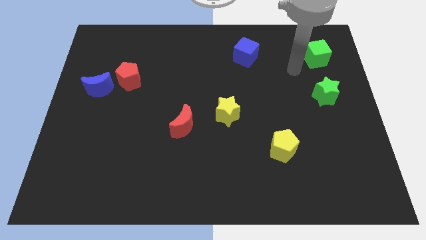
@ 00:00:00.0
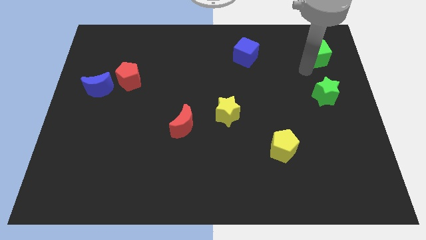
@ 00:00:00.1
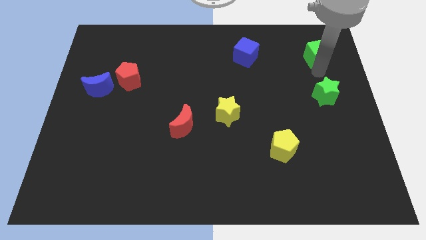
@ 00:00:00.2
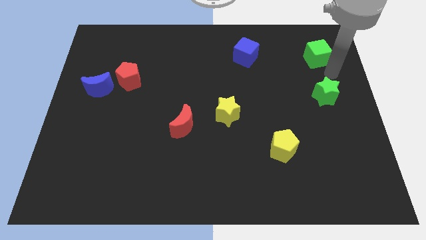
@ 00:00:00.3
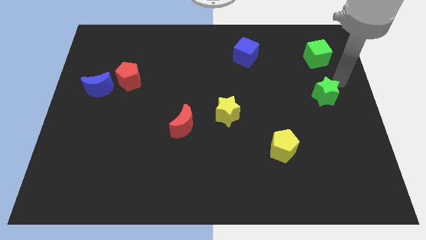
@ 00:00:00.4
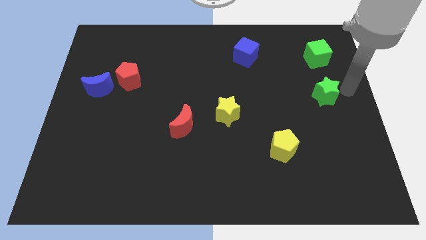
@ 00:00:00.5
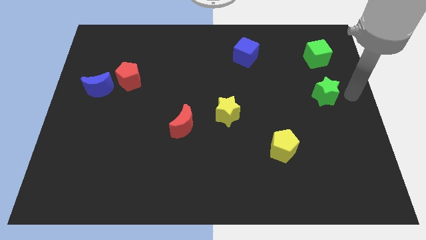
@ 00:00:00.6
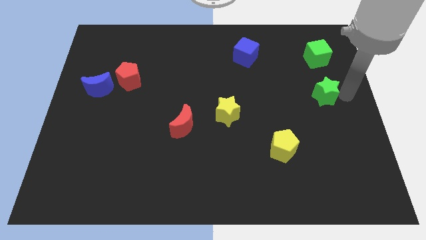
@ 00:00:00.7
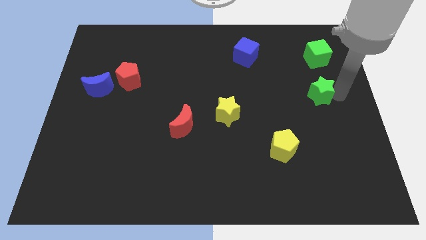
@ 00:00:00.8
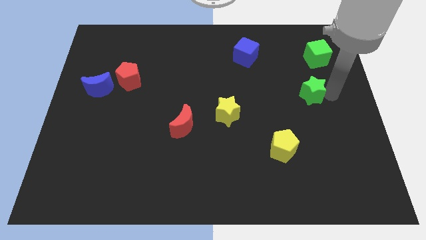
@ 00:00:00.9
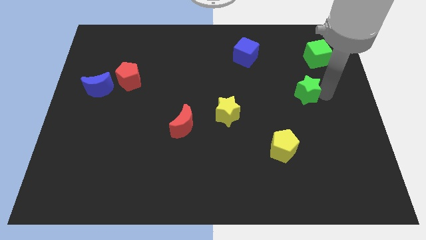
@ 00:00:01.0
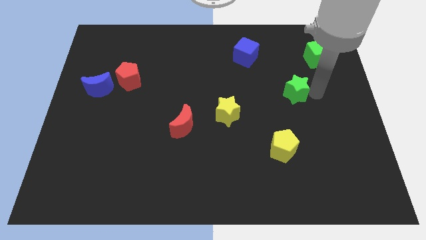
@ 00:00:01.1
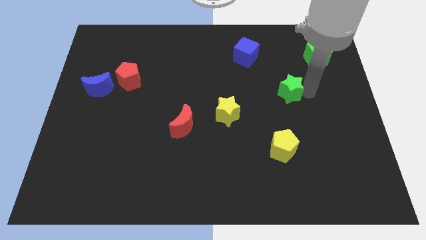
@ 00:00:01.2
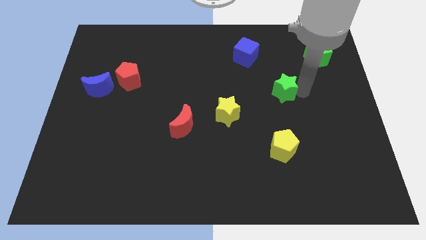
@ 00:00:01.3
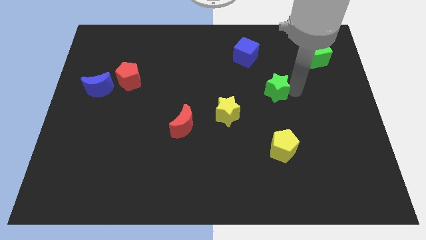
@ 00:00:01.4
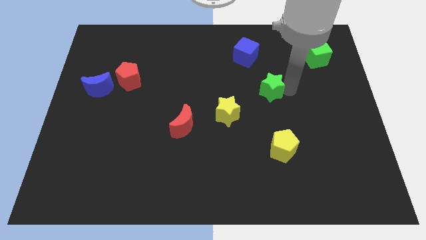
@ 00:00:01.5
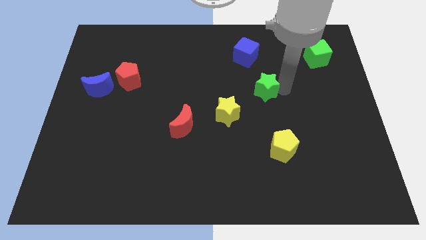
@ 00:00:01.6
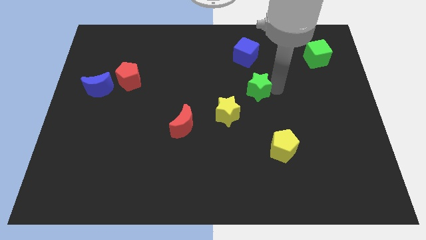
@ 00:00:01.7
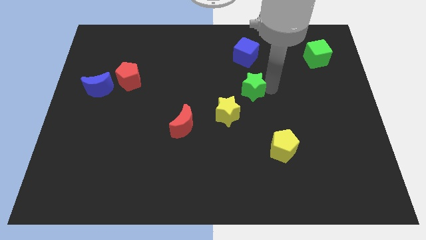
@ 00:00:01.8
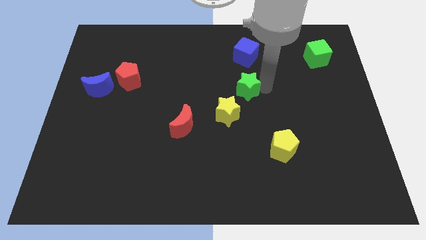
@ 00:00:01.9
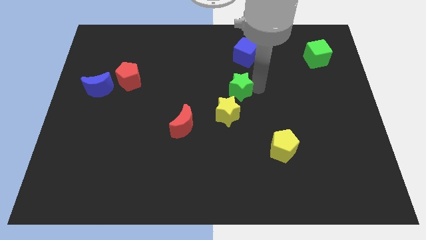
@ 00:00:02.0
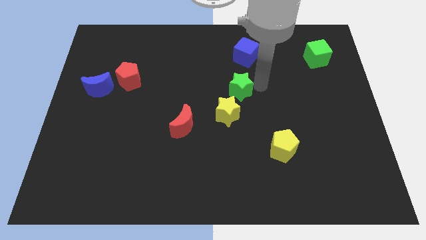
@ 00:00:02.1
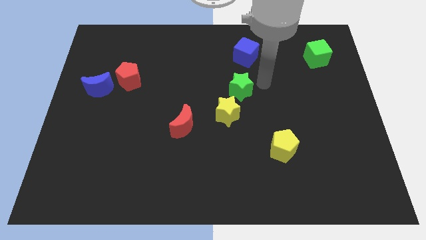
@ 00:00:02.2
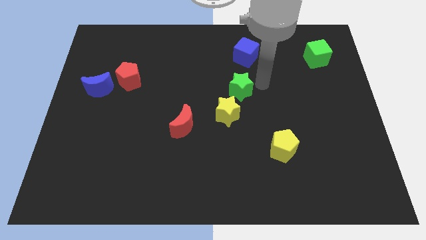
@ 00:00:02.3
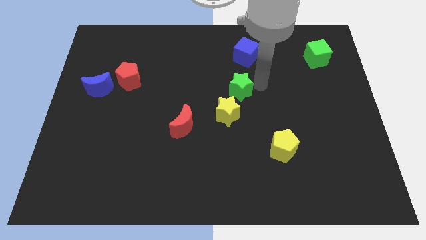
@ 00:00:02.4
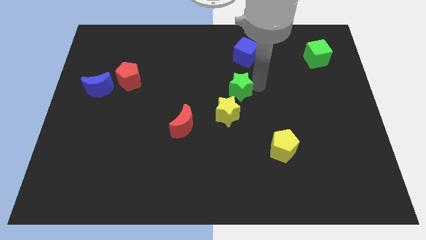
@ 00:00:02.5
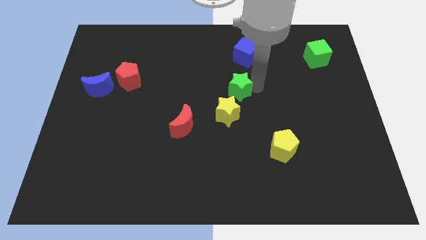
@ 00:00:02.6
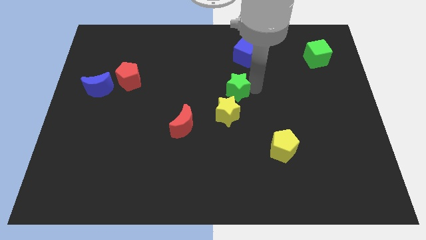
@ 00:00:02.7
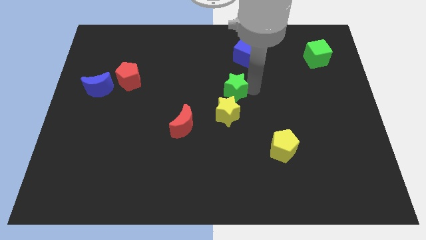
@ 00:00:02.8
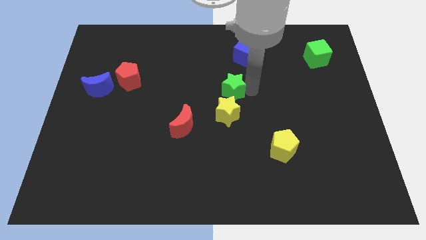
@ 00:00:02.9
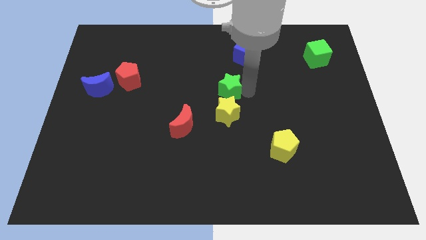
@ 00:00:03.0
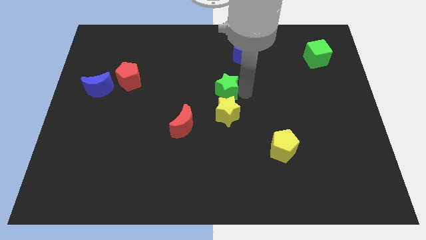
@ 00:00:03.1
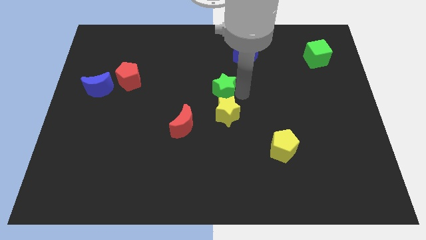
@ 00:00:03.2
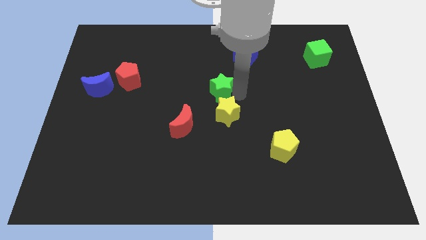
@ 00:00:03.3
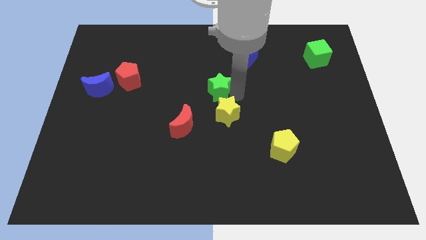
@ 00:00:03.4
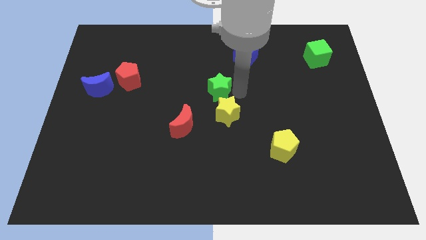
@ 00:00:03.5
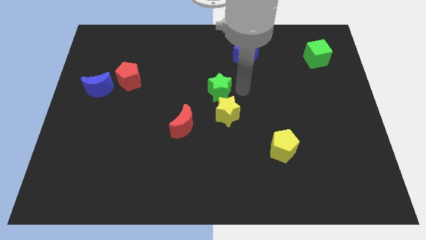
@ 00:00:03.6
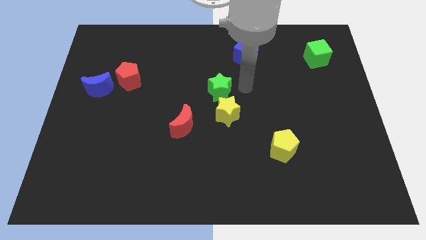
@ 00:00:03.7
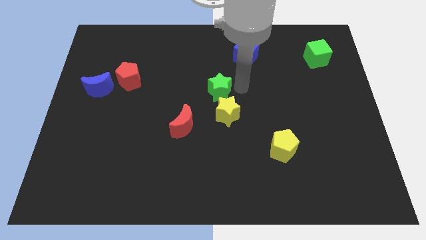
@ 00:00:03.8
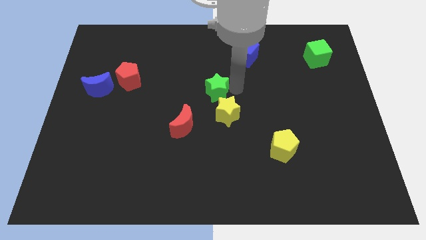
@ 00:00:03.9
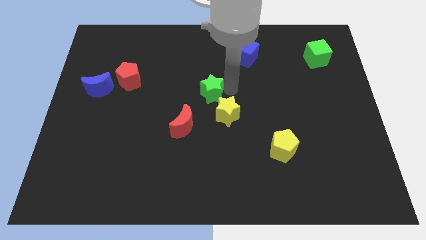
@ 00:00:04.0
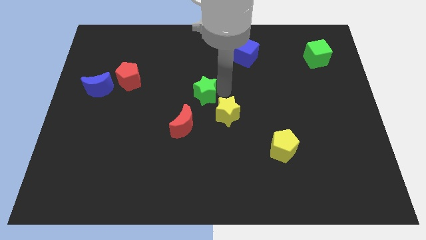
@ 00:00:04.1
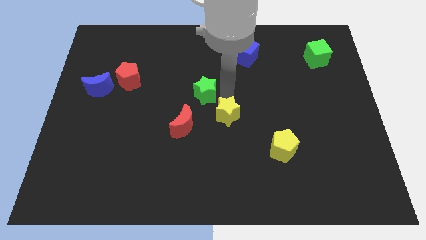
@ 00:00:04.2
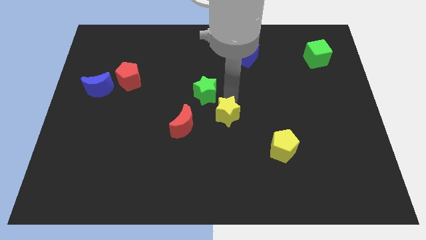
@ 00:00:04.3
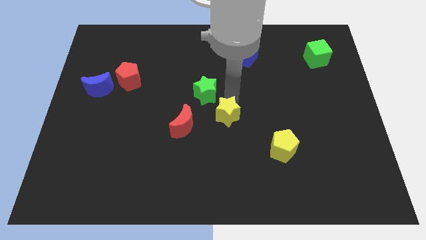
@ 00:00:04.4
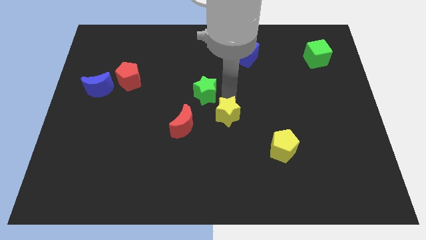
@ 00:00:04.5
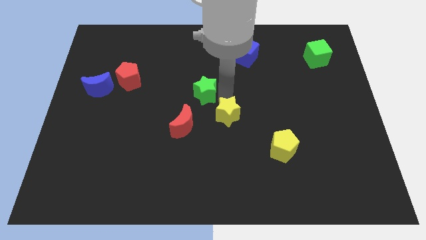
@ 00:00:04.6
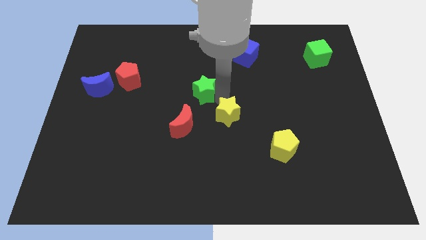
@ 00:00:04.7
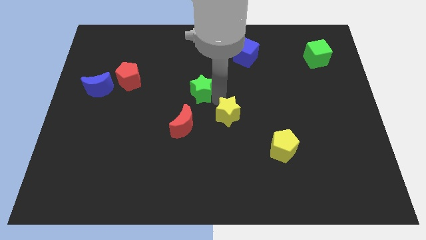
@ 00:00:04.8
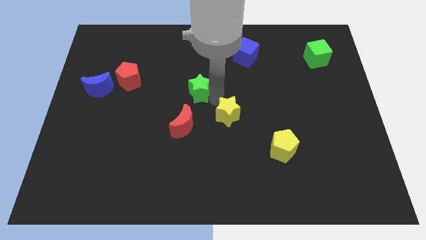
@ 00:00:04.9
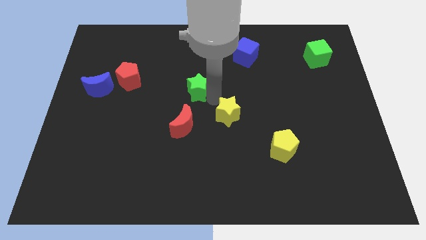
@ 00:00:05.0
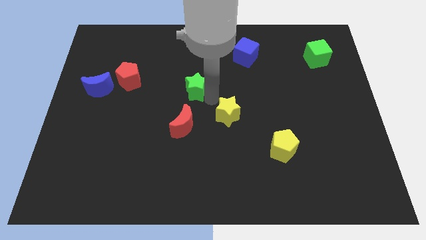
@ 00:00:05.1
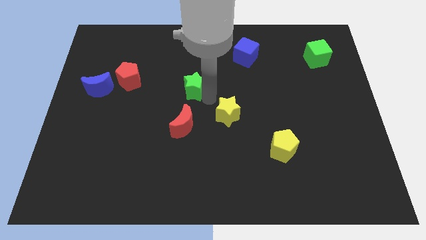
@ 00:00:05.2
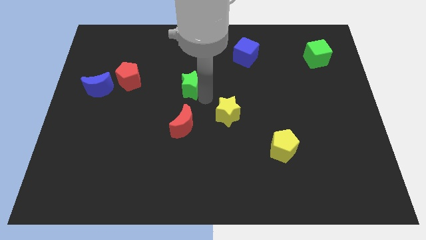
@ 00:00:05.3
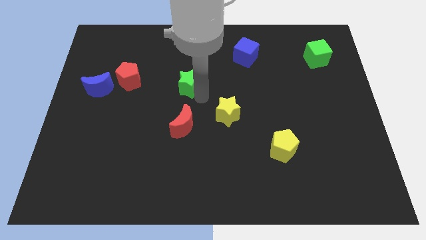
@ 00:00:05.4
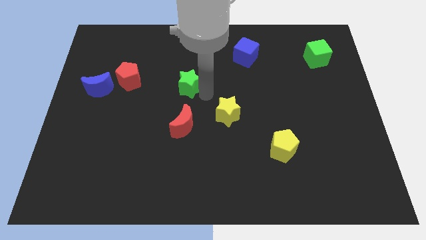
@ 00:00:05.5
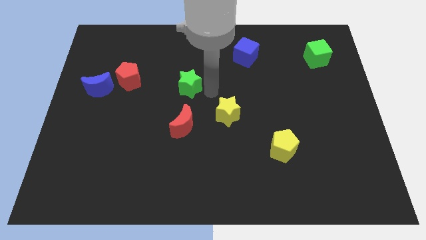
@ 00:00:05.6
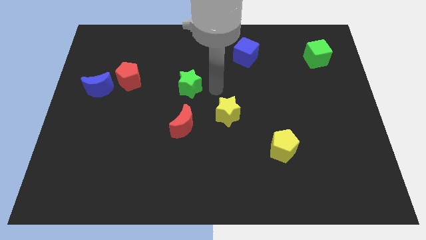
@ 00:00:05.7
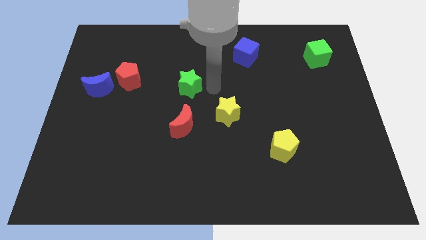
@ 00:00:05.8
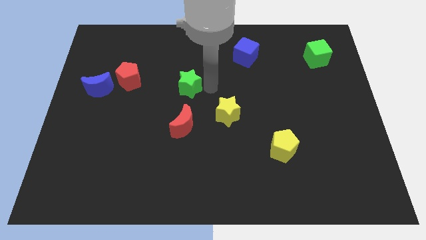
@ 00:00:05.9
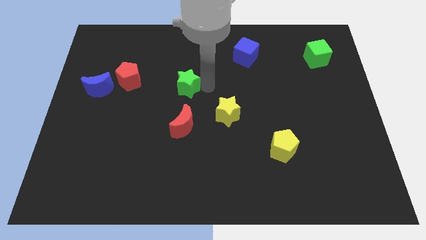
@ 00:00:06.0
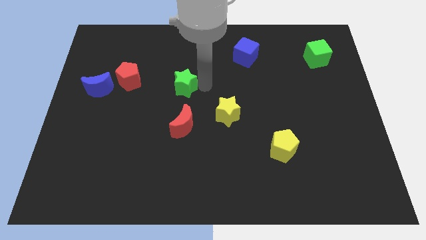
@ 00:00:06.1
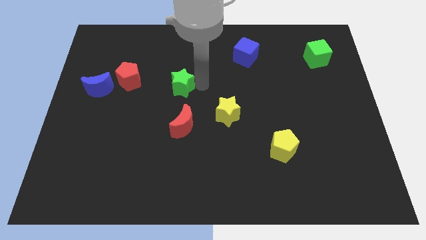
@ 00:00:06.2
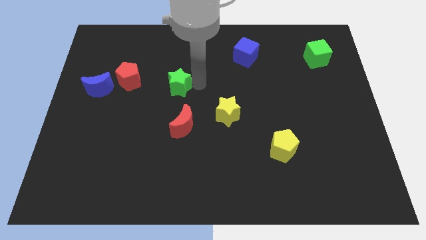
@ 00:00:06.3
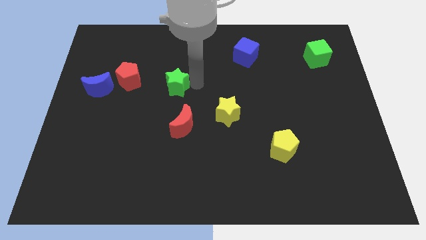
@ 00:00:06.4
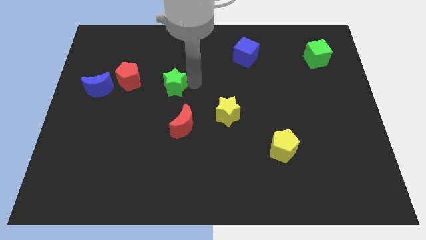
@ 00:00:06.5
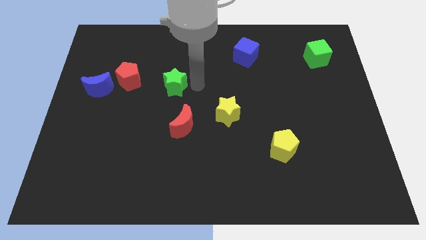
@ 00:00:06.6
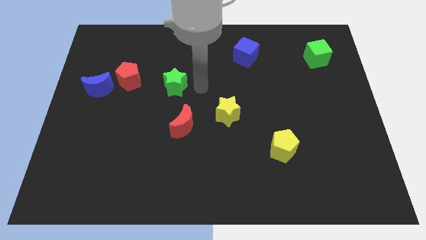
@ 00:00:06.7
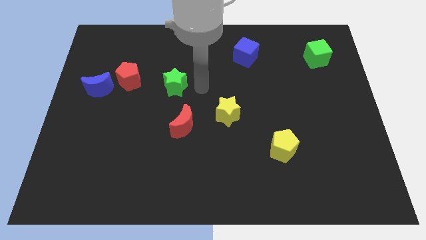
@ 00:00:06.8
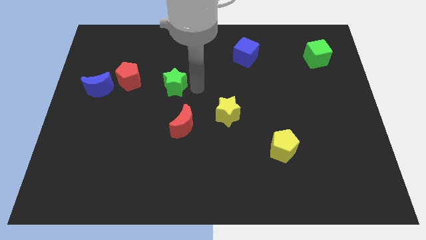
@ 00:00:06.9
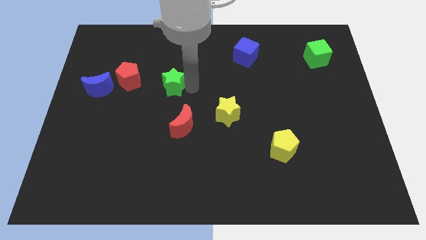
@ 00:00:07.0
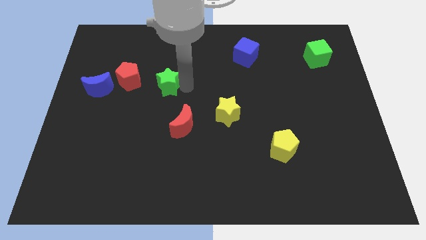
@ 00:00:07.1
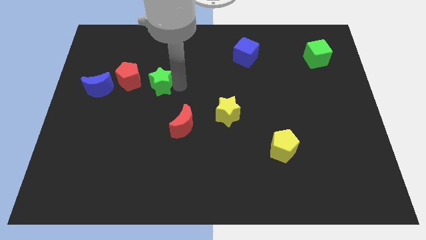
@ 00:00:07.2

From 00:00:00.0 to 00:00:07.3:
slide the green star to the right side of the blue moon

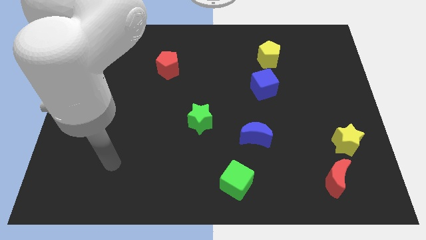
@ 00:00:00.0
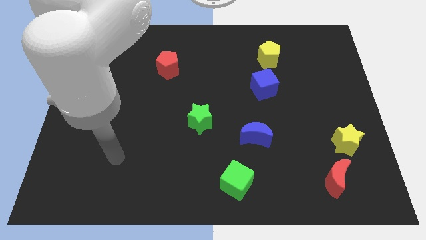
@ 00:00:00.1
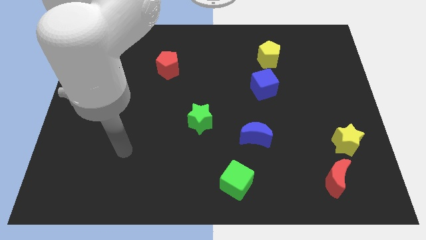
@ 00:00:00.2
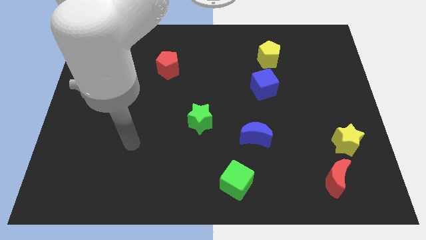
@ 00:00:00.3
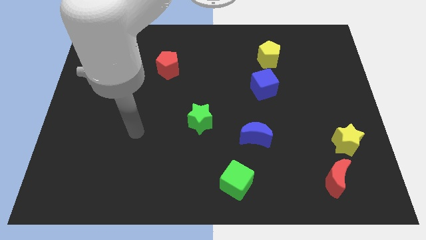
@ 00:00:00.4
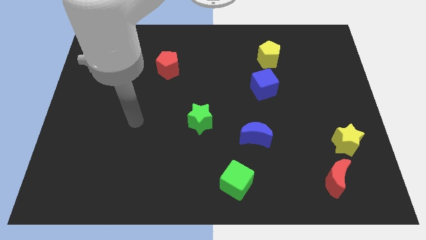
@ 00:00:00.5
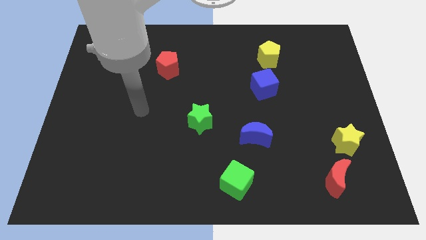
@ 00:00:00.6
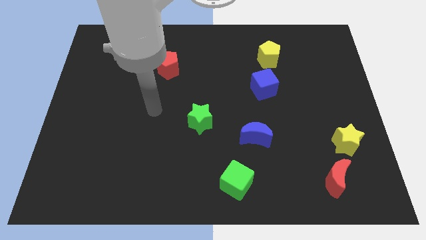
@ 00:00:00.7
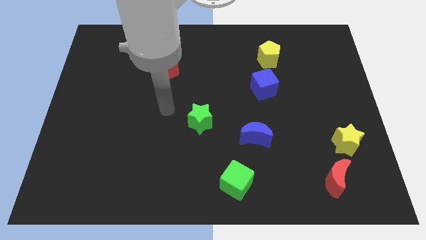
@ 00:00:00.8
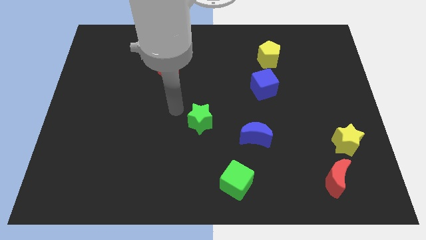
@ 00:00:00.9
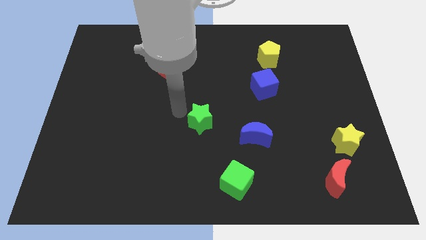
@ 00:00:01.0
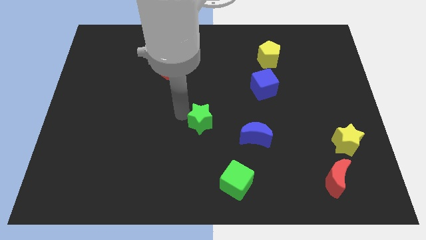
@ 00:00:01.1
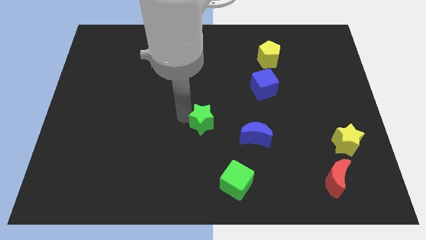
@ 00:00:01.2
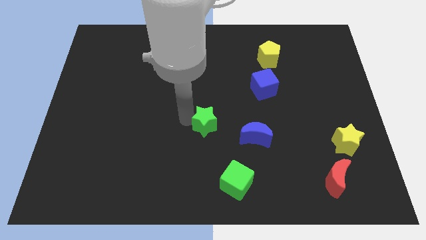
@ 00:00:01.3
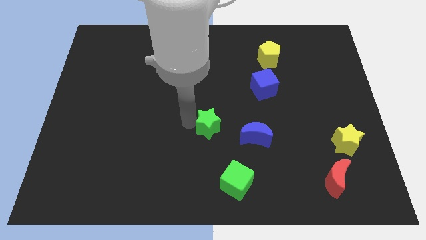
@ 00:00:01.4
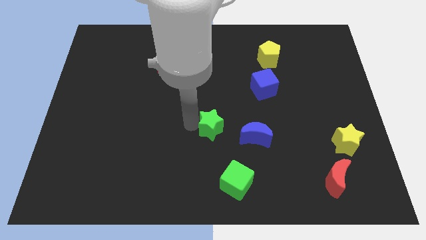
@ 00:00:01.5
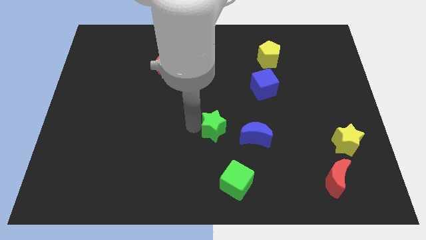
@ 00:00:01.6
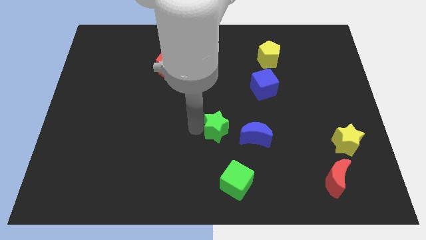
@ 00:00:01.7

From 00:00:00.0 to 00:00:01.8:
put the green star above the green cube
